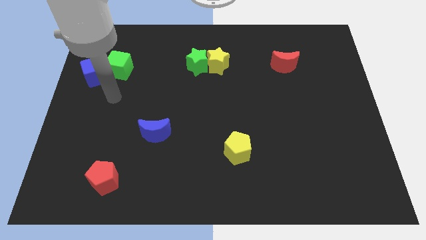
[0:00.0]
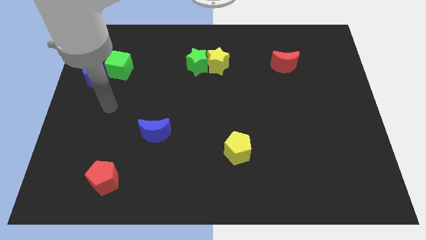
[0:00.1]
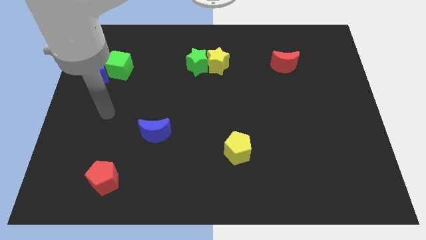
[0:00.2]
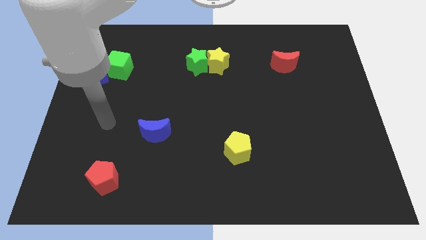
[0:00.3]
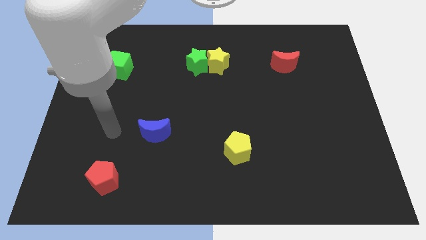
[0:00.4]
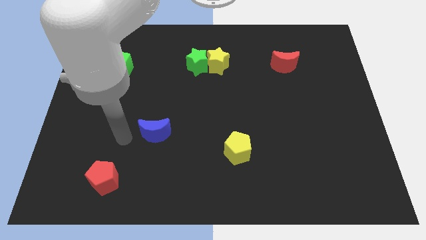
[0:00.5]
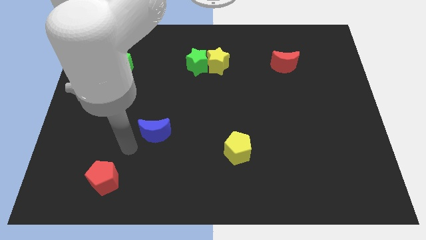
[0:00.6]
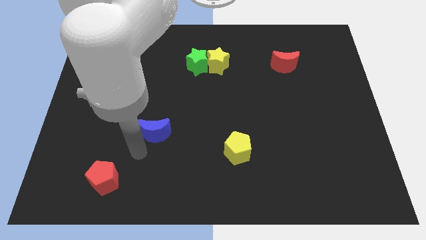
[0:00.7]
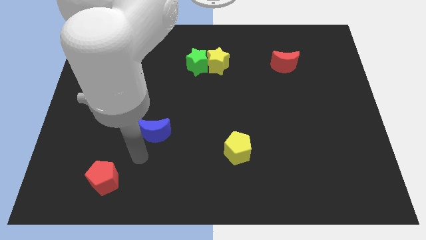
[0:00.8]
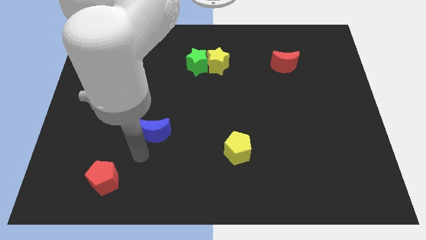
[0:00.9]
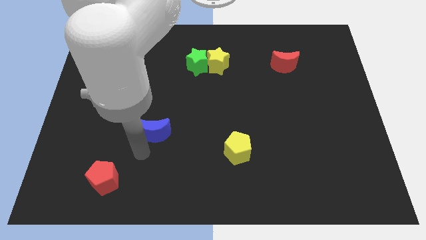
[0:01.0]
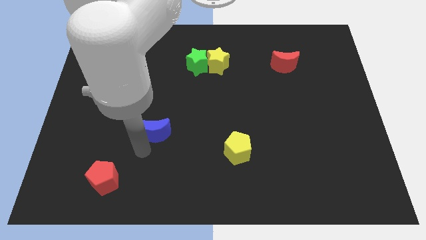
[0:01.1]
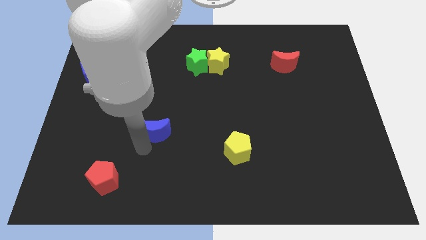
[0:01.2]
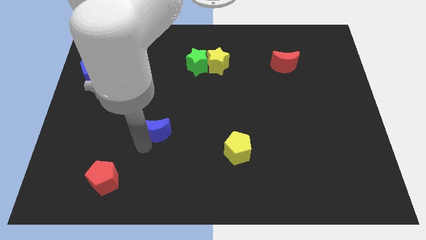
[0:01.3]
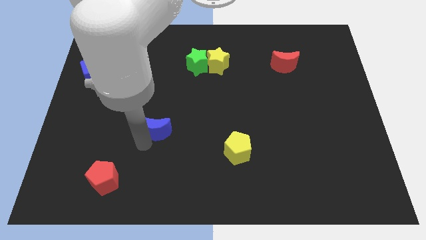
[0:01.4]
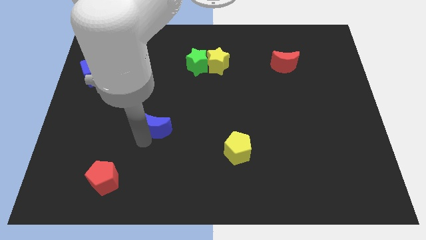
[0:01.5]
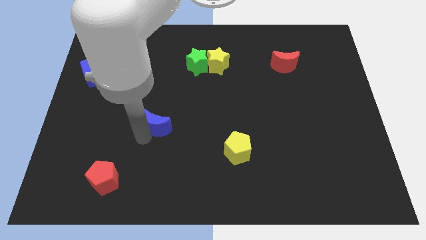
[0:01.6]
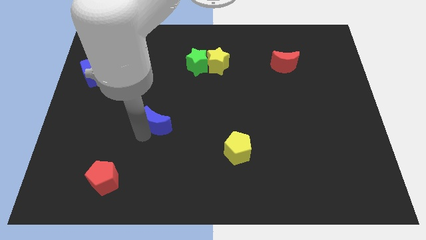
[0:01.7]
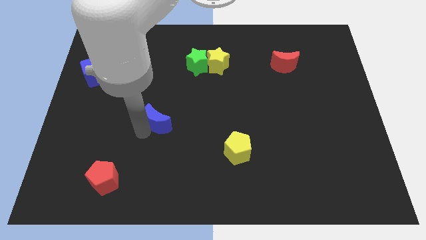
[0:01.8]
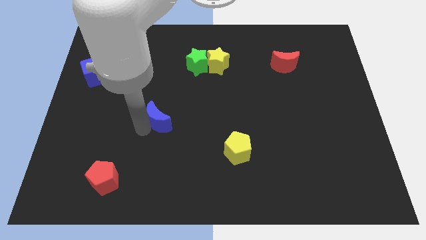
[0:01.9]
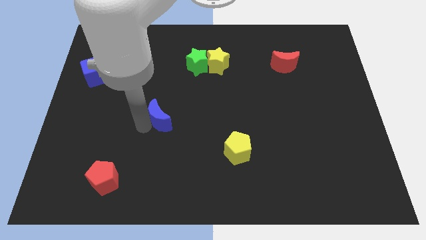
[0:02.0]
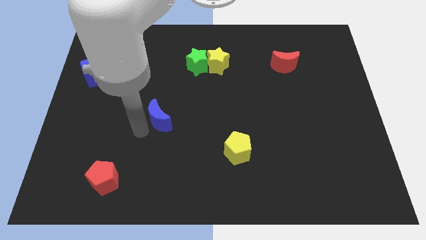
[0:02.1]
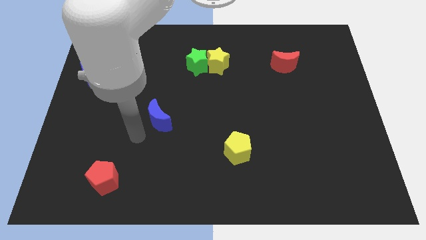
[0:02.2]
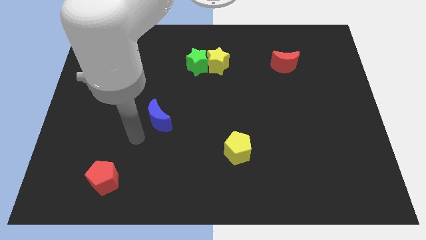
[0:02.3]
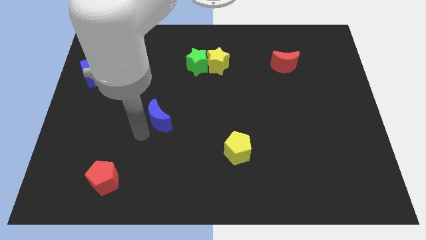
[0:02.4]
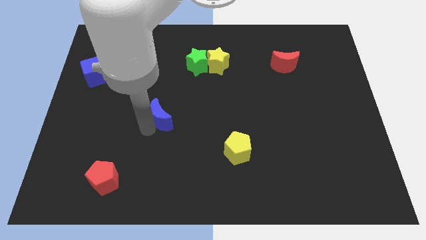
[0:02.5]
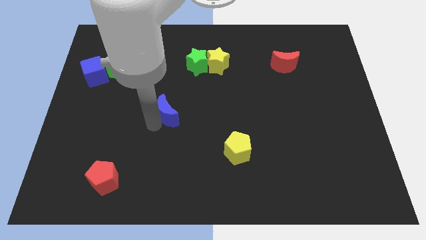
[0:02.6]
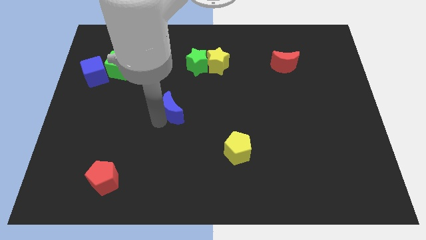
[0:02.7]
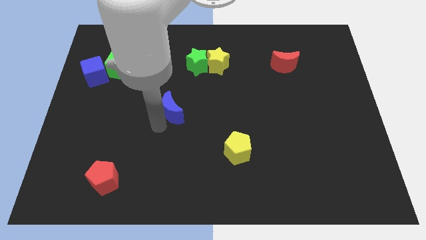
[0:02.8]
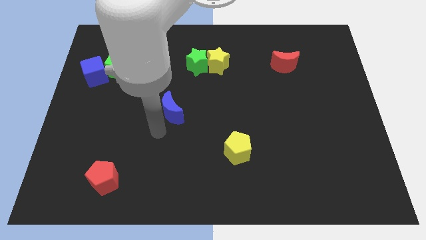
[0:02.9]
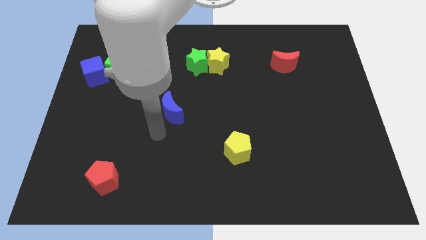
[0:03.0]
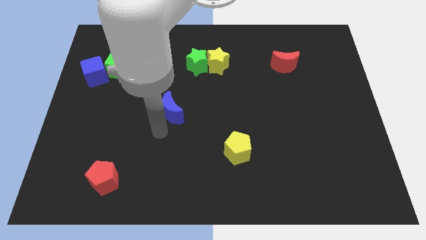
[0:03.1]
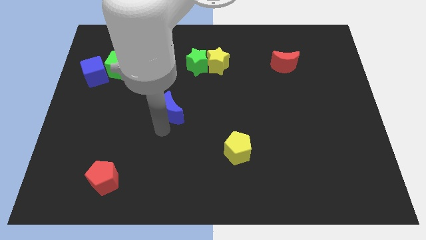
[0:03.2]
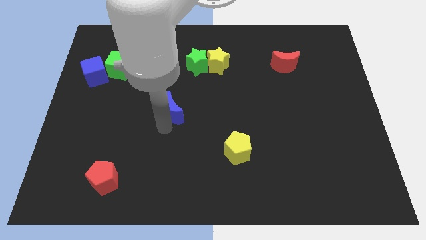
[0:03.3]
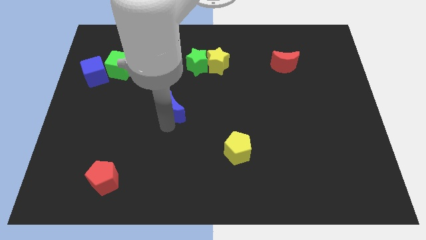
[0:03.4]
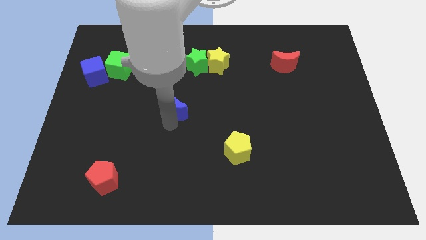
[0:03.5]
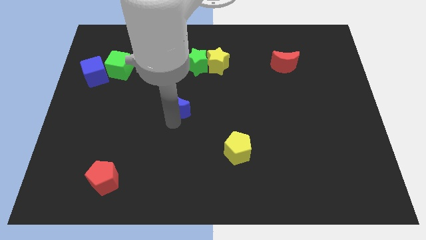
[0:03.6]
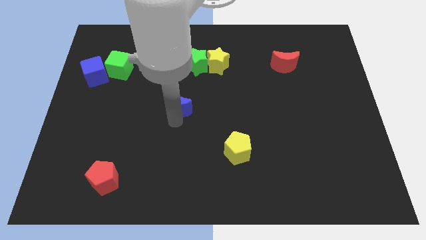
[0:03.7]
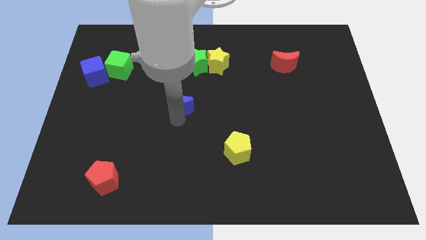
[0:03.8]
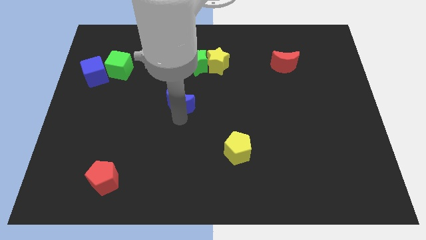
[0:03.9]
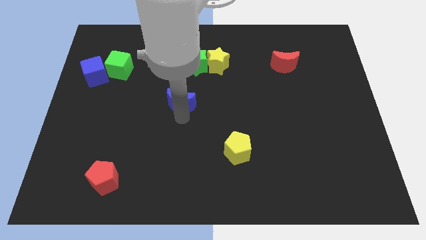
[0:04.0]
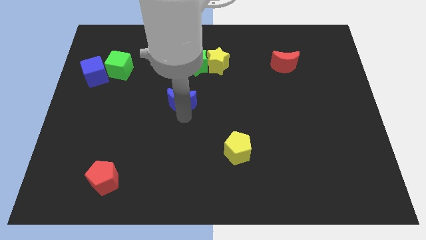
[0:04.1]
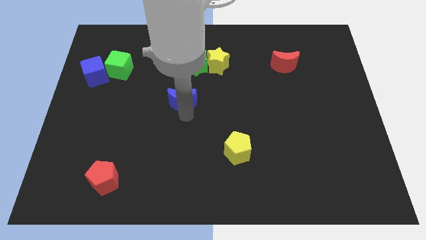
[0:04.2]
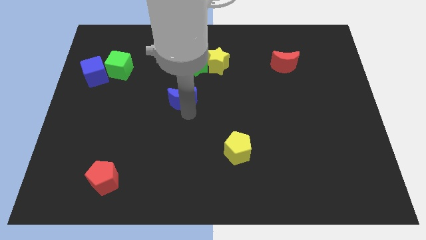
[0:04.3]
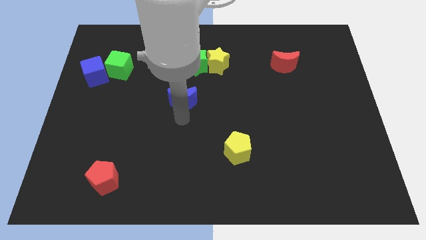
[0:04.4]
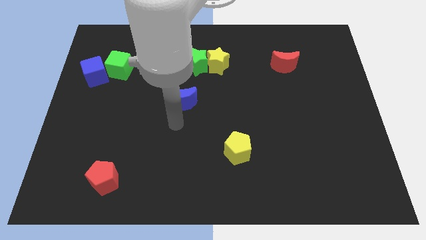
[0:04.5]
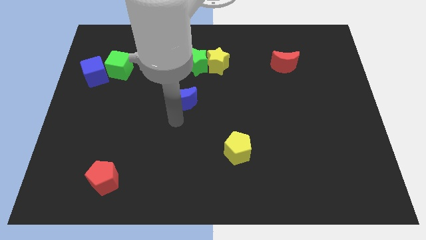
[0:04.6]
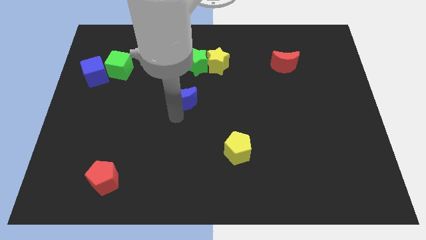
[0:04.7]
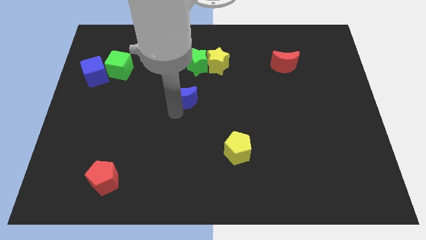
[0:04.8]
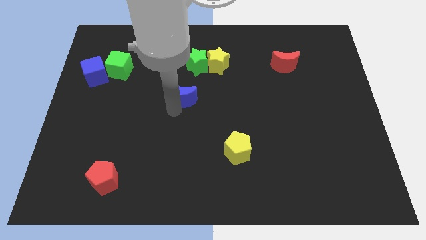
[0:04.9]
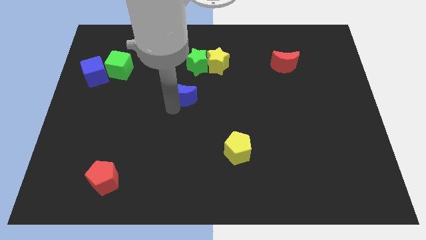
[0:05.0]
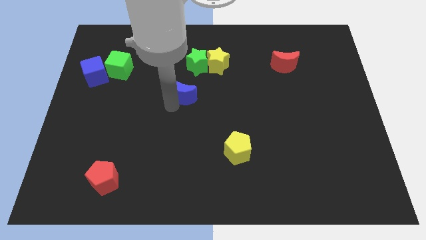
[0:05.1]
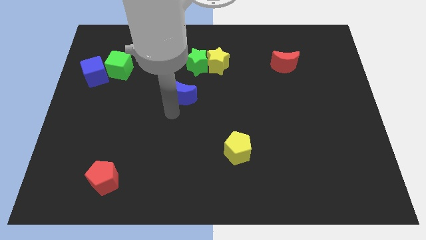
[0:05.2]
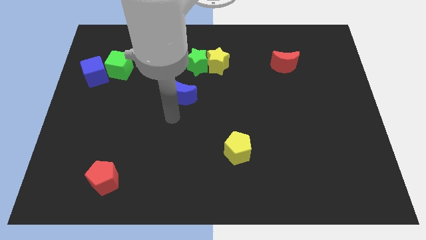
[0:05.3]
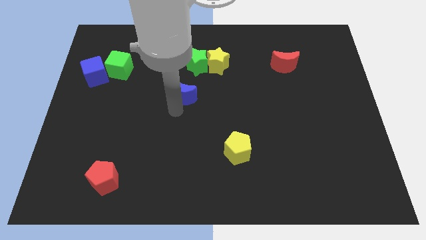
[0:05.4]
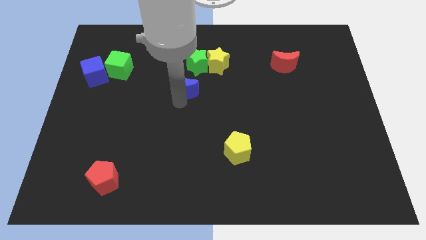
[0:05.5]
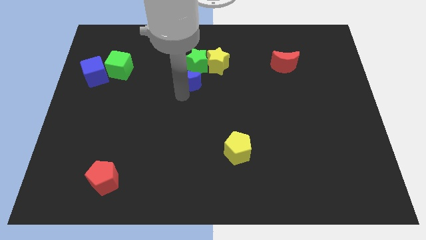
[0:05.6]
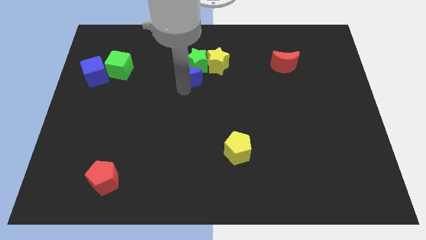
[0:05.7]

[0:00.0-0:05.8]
push the blue moon towards the green star

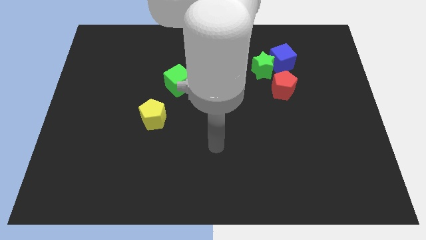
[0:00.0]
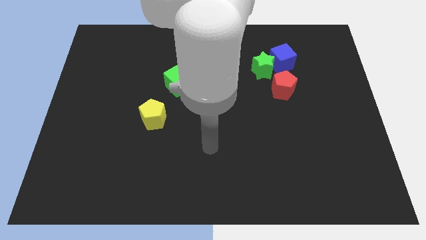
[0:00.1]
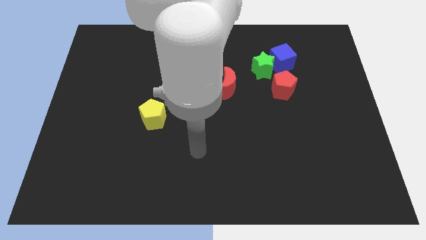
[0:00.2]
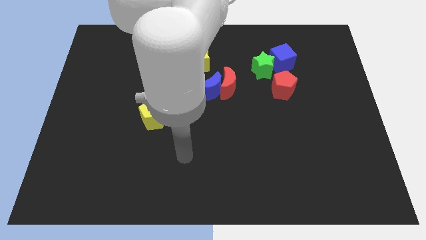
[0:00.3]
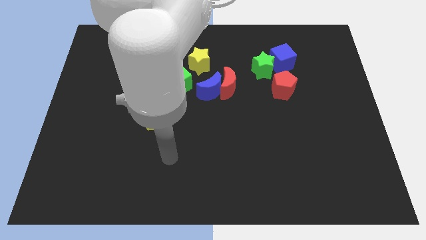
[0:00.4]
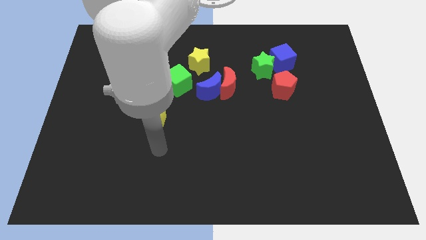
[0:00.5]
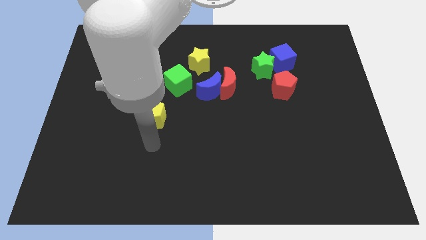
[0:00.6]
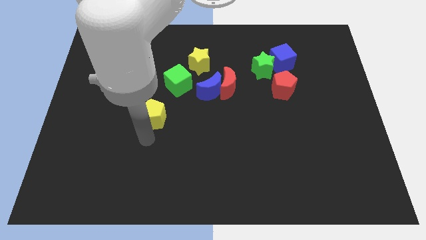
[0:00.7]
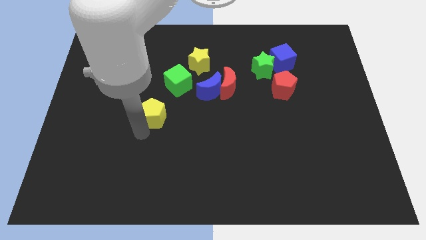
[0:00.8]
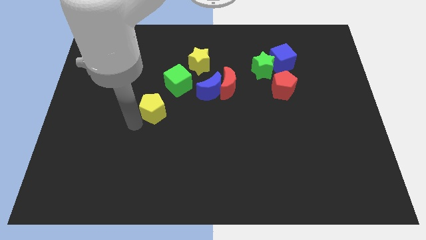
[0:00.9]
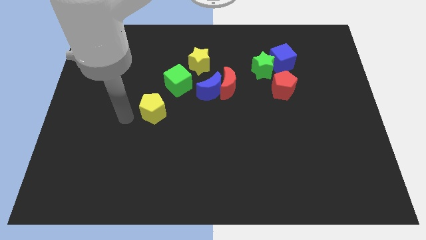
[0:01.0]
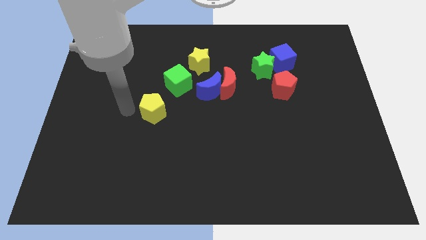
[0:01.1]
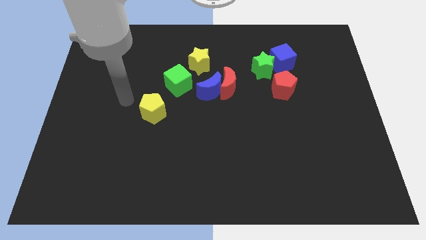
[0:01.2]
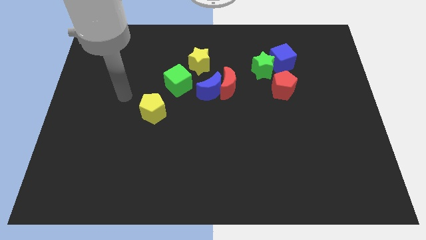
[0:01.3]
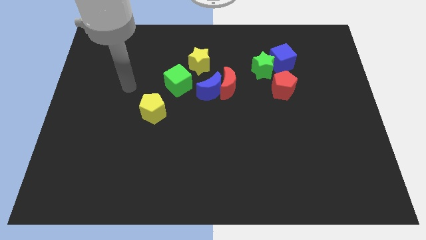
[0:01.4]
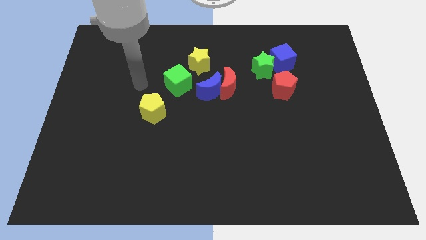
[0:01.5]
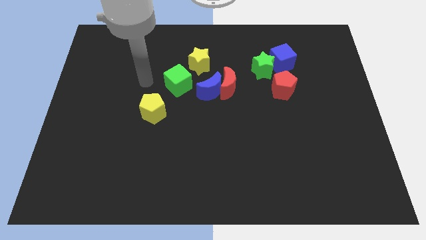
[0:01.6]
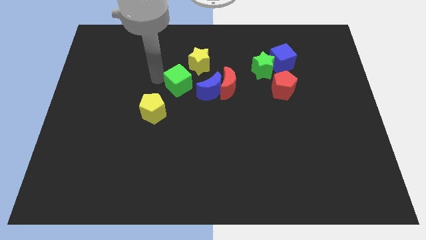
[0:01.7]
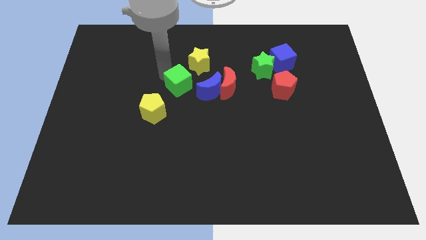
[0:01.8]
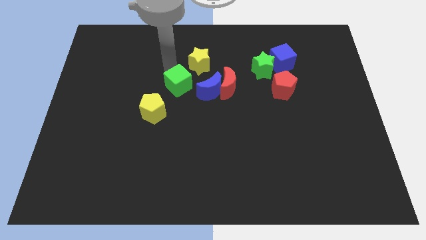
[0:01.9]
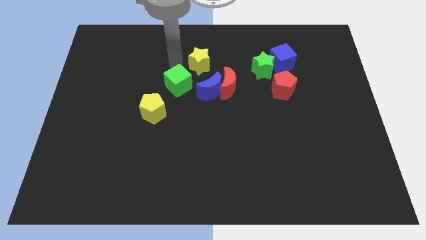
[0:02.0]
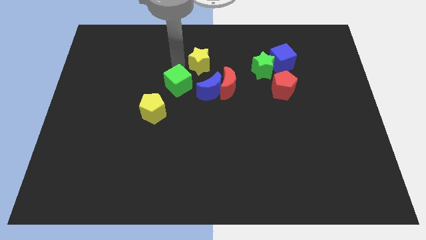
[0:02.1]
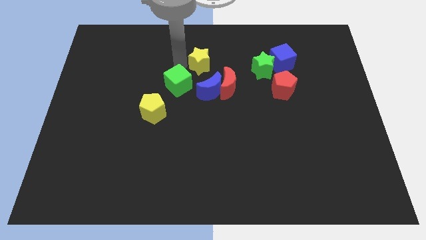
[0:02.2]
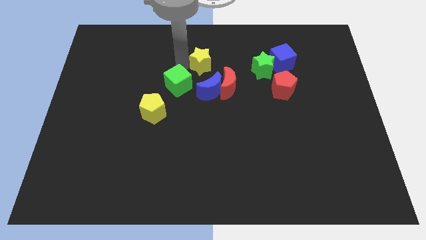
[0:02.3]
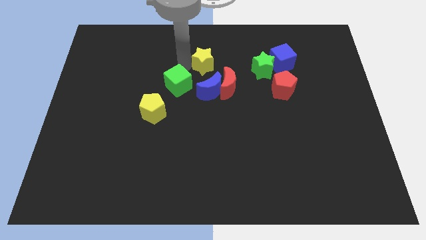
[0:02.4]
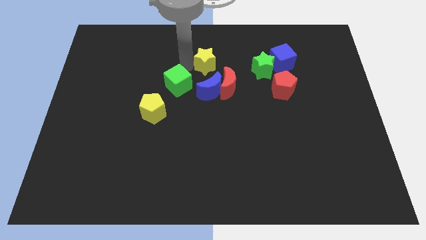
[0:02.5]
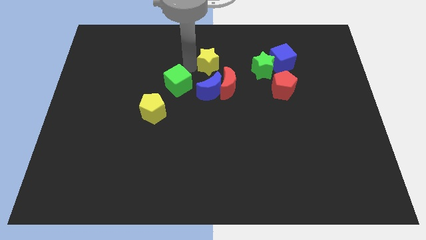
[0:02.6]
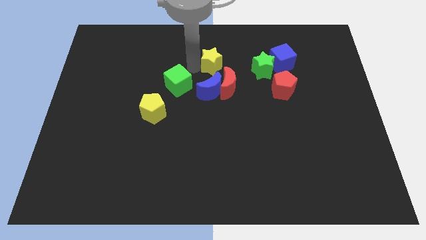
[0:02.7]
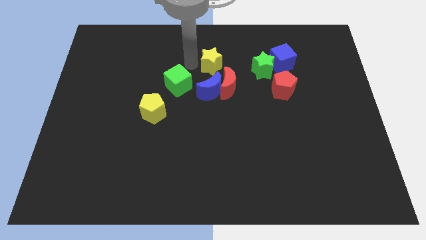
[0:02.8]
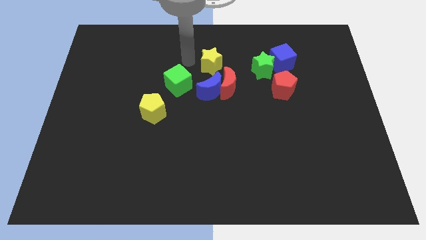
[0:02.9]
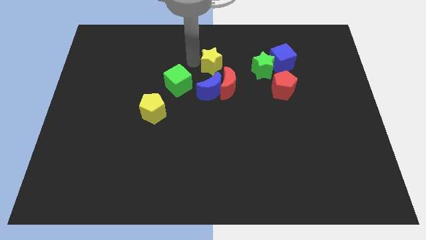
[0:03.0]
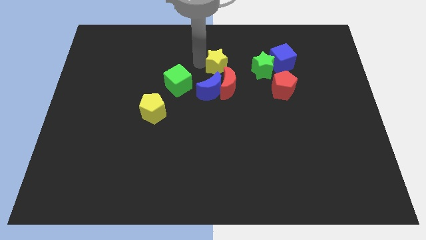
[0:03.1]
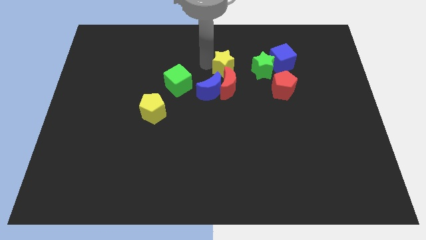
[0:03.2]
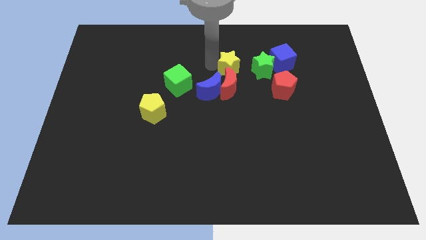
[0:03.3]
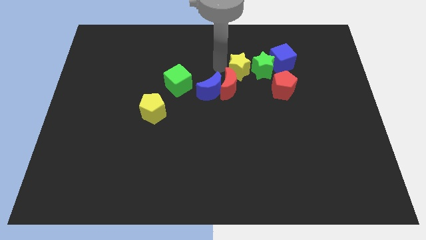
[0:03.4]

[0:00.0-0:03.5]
slide the yellow star close to the green star
